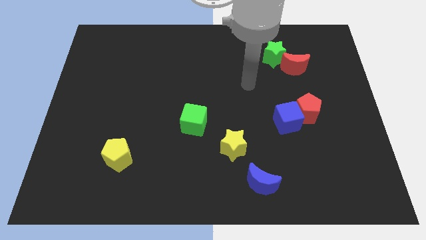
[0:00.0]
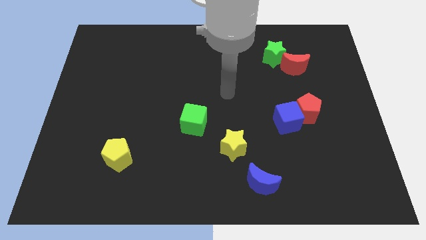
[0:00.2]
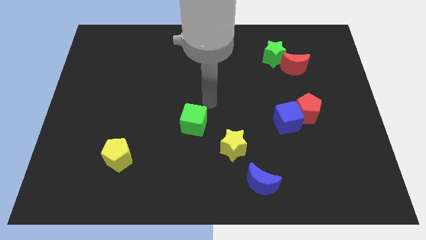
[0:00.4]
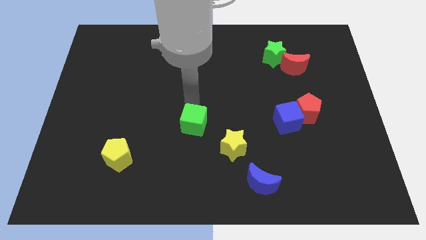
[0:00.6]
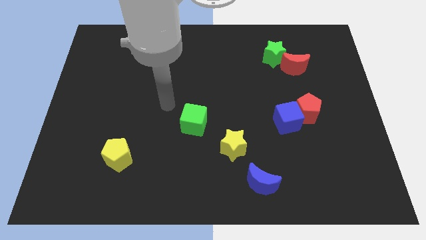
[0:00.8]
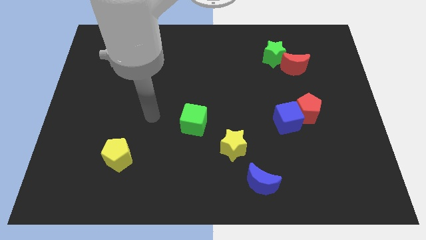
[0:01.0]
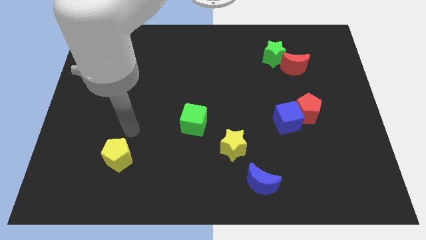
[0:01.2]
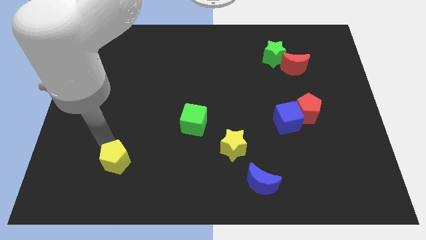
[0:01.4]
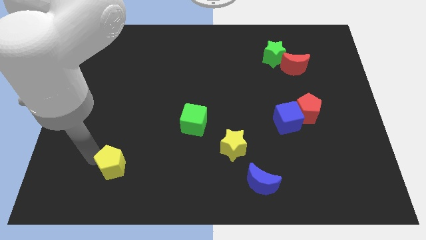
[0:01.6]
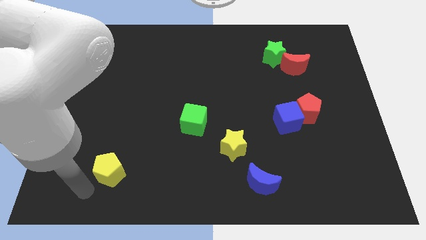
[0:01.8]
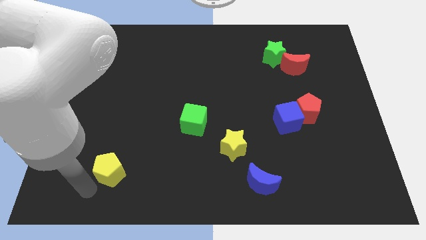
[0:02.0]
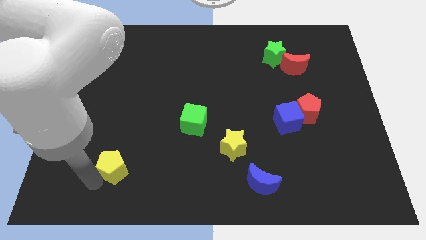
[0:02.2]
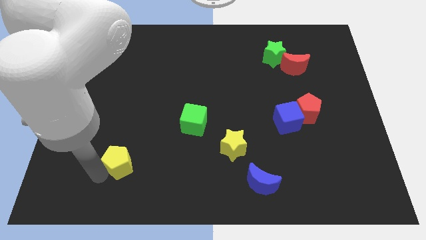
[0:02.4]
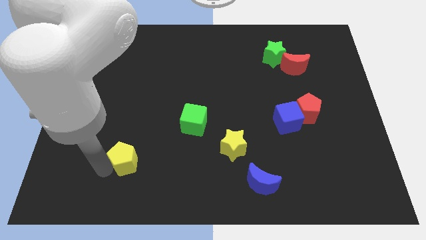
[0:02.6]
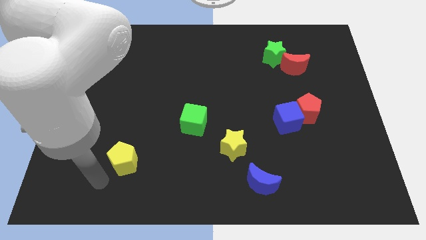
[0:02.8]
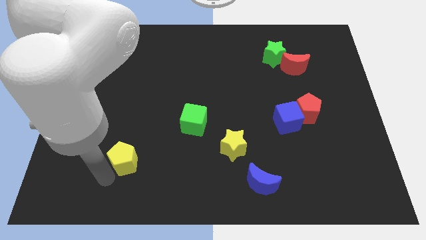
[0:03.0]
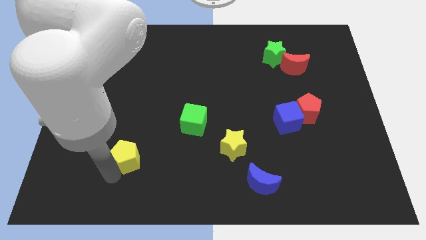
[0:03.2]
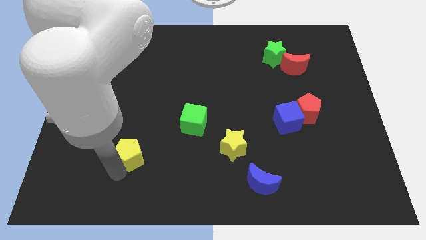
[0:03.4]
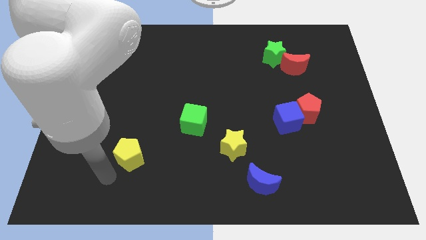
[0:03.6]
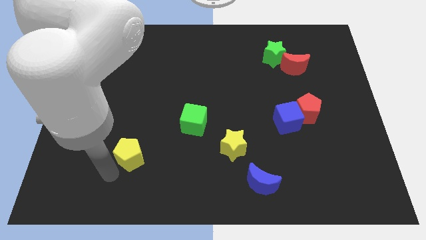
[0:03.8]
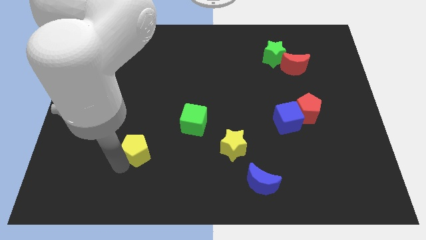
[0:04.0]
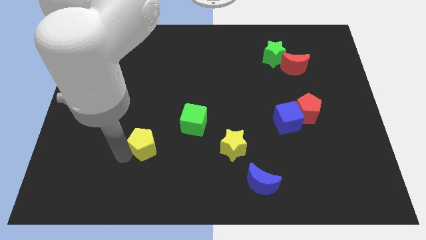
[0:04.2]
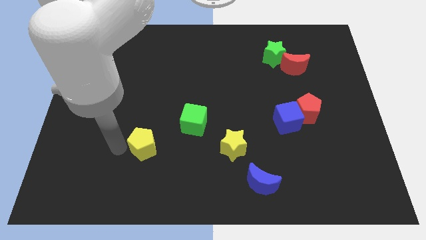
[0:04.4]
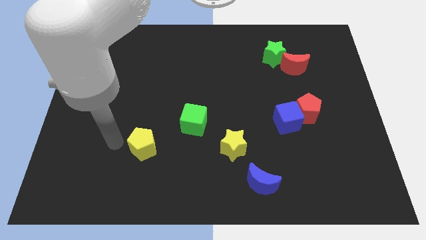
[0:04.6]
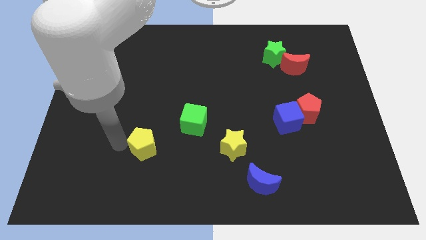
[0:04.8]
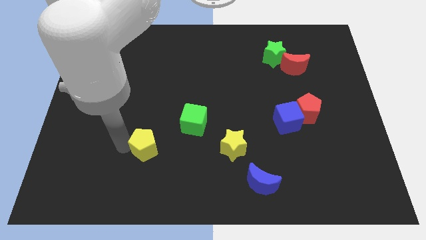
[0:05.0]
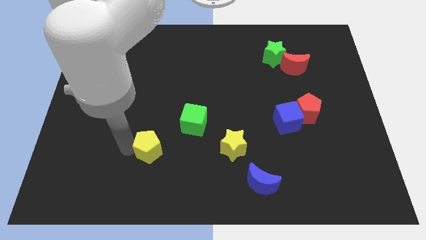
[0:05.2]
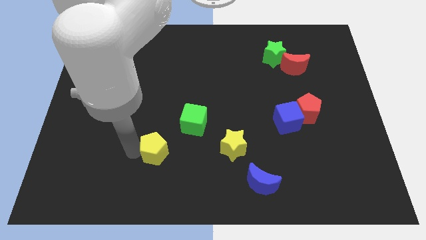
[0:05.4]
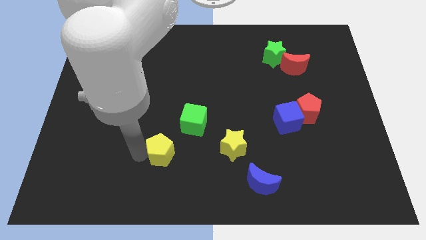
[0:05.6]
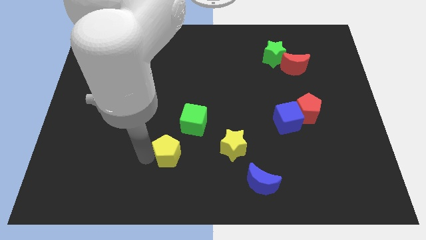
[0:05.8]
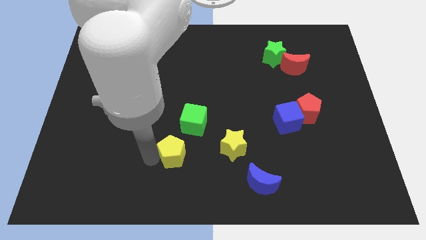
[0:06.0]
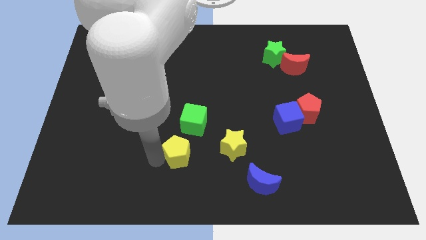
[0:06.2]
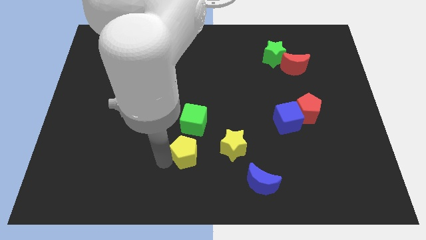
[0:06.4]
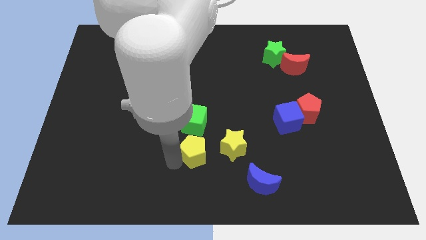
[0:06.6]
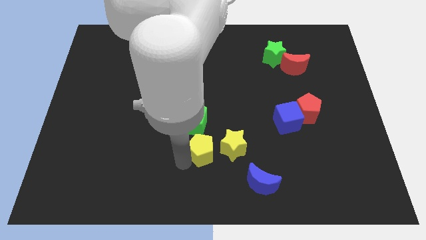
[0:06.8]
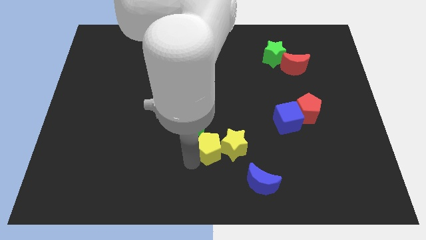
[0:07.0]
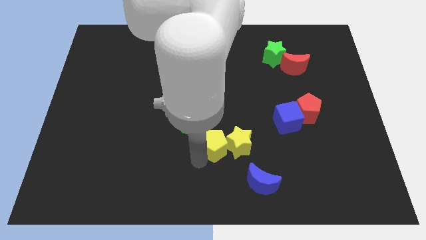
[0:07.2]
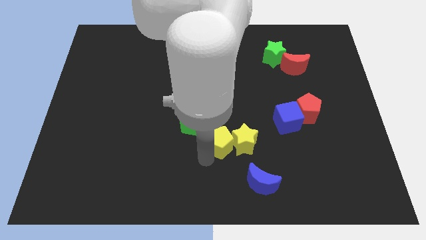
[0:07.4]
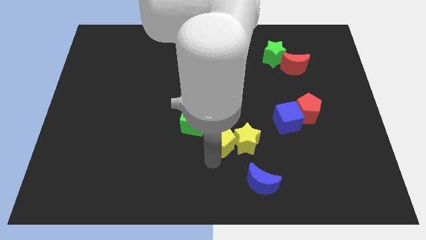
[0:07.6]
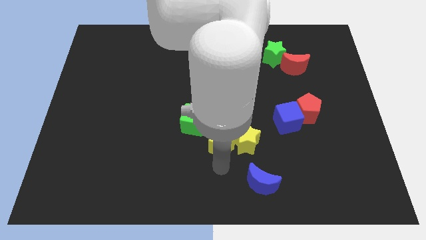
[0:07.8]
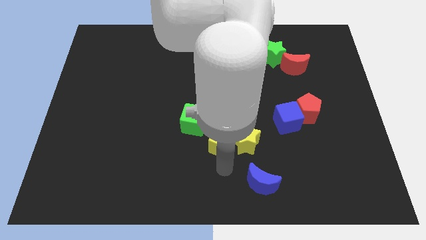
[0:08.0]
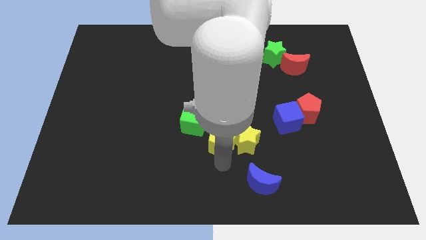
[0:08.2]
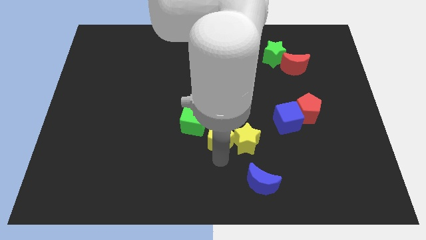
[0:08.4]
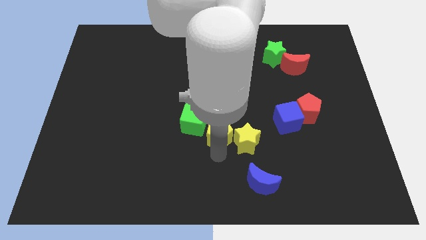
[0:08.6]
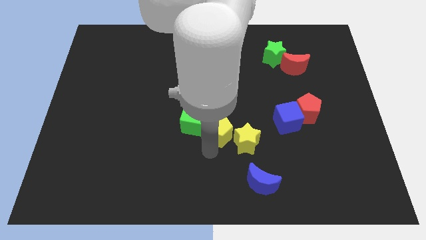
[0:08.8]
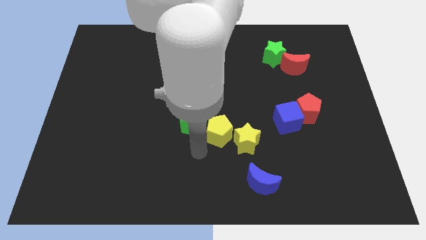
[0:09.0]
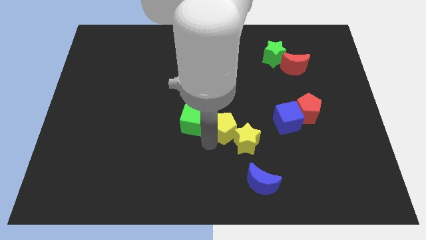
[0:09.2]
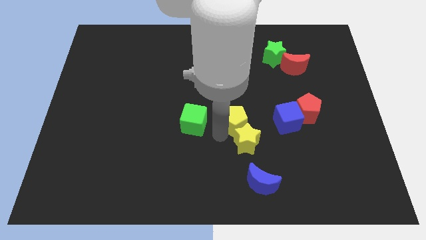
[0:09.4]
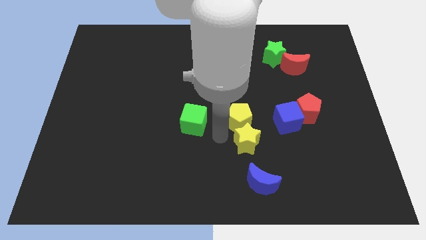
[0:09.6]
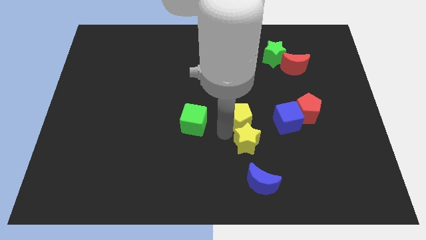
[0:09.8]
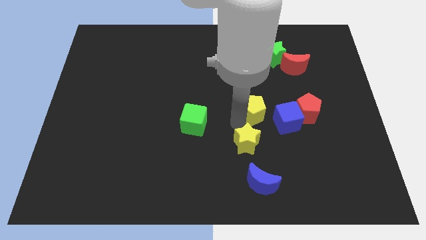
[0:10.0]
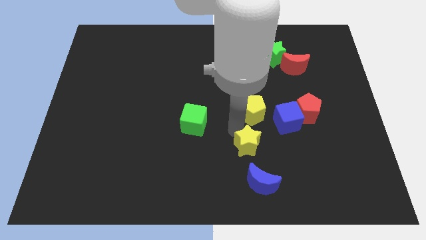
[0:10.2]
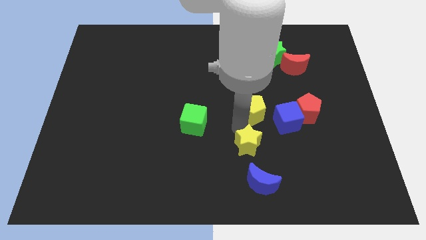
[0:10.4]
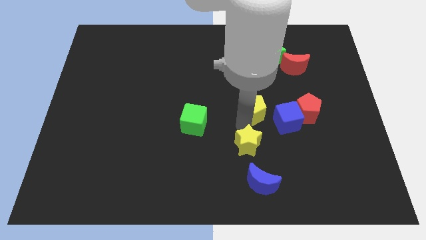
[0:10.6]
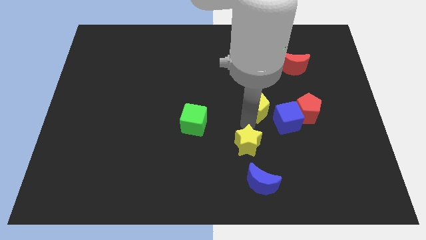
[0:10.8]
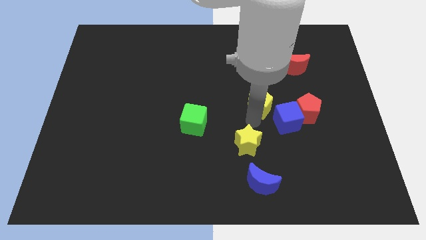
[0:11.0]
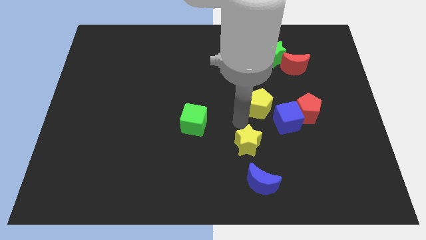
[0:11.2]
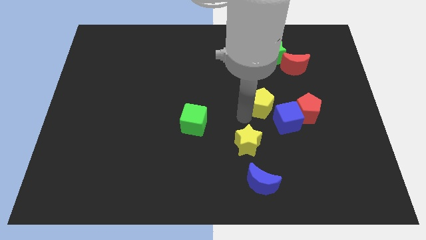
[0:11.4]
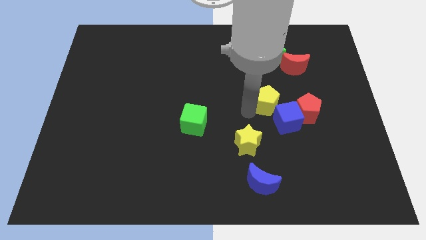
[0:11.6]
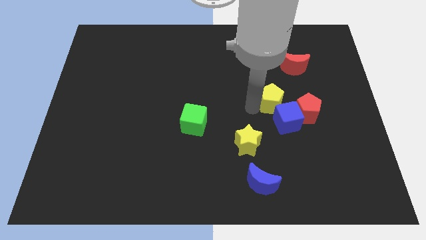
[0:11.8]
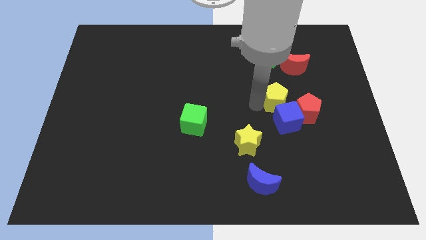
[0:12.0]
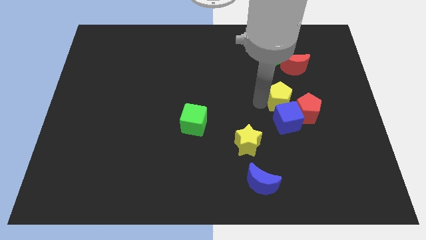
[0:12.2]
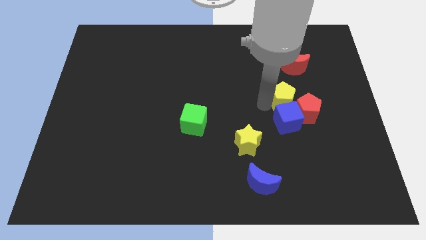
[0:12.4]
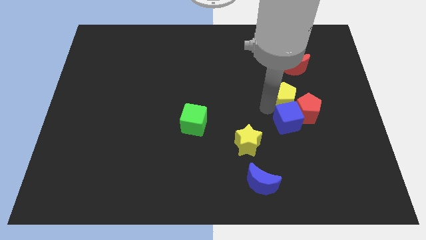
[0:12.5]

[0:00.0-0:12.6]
move the yellow pentagon above the red pentagon

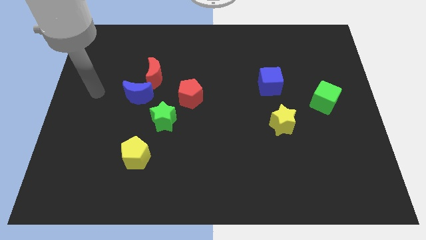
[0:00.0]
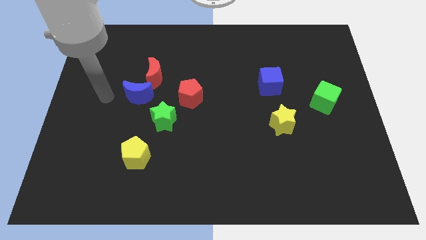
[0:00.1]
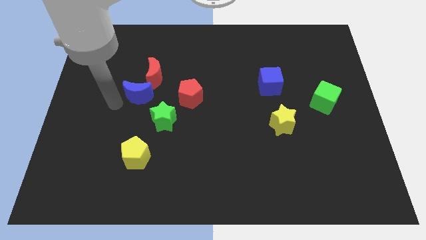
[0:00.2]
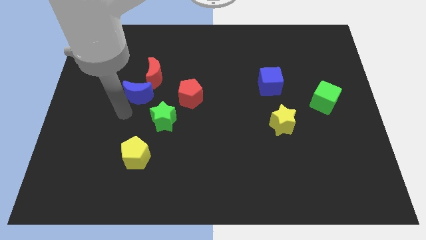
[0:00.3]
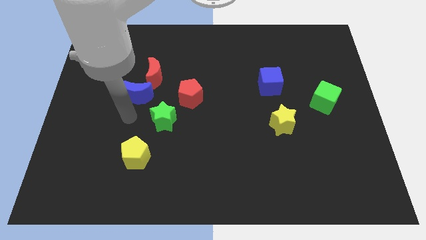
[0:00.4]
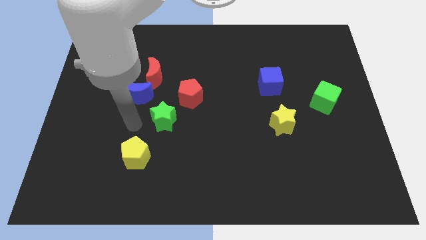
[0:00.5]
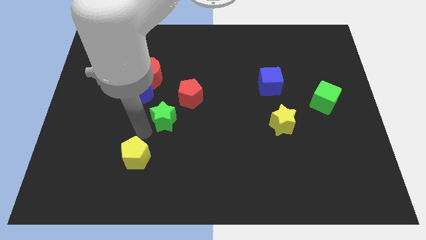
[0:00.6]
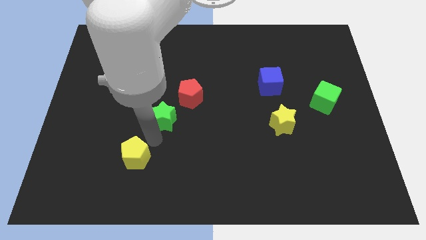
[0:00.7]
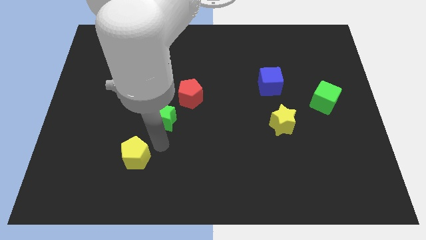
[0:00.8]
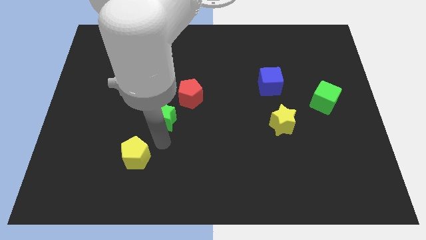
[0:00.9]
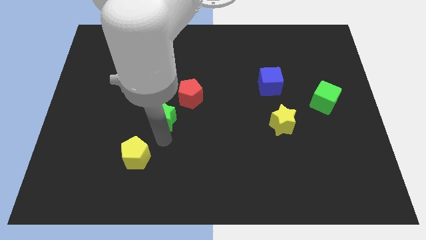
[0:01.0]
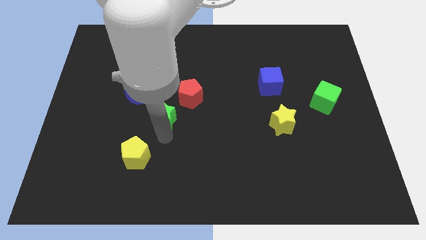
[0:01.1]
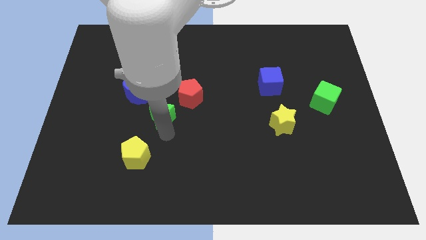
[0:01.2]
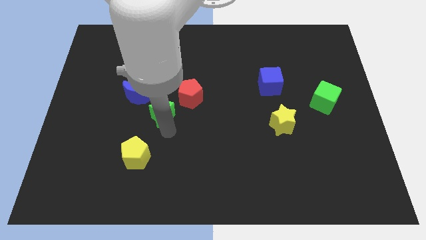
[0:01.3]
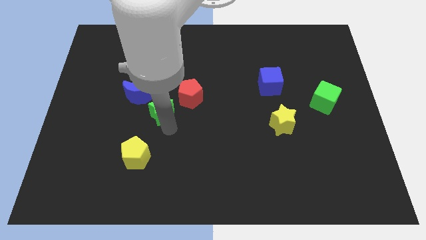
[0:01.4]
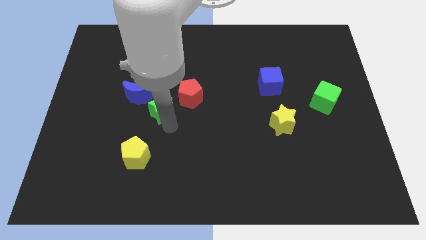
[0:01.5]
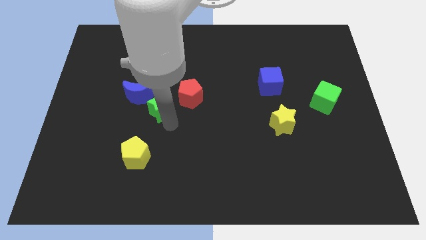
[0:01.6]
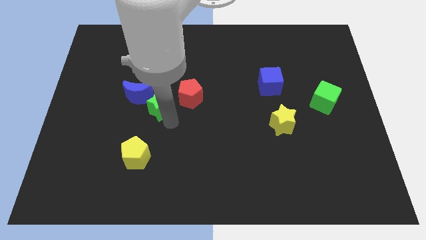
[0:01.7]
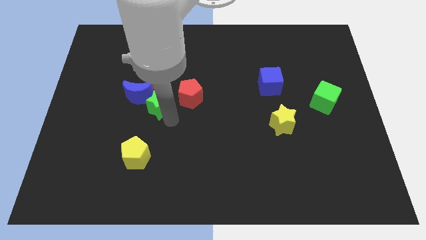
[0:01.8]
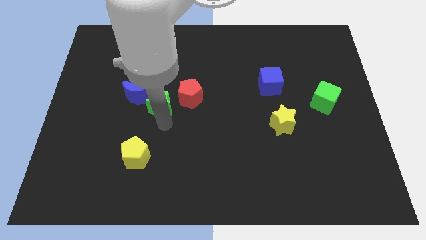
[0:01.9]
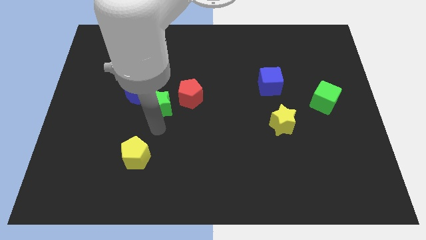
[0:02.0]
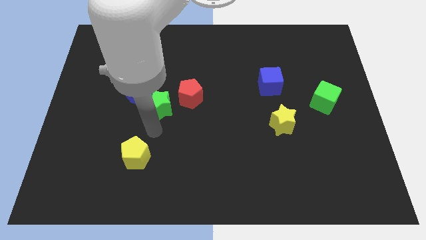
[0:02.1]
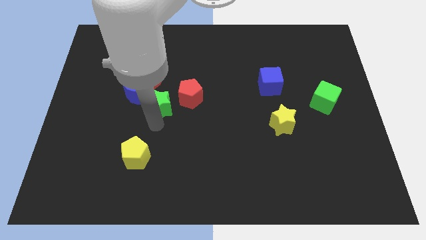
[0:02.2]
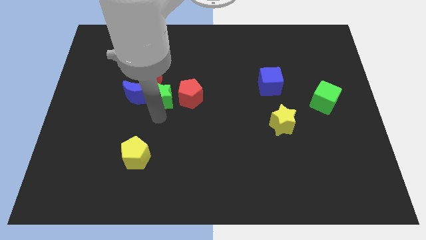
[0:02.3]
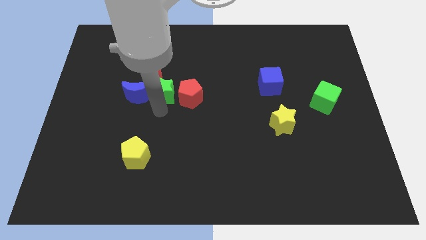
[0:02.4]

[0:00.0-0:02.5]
push the green star to the top left side of the red pentagon
